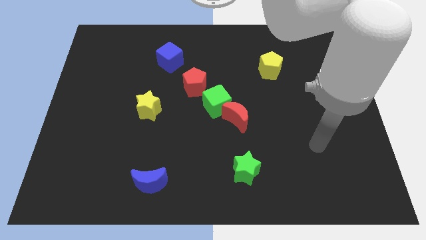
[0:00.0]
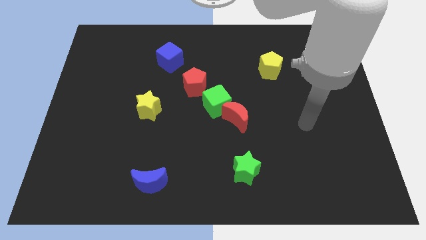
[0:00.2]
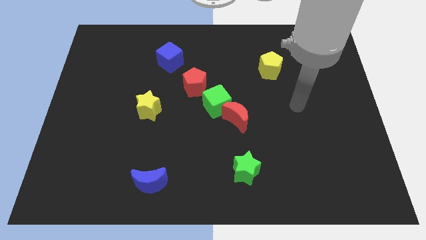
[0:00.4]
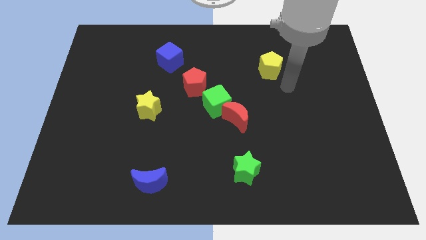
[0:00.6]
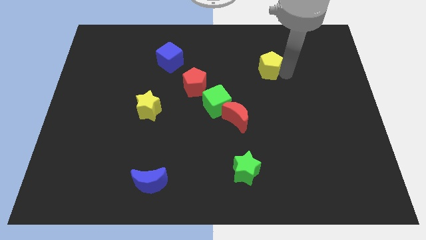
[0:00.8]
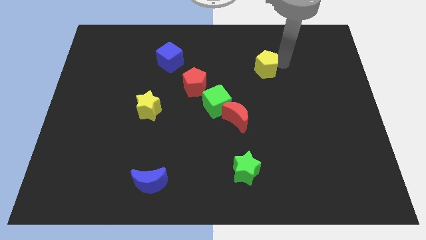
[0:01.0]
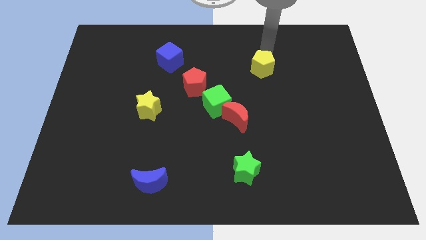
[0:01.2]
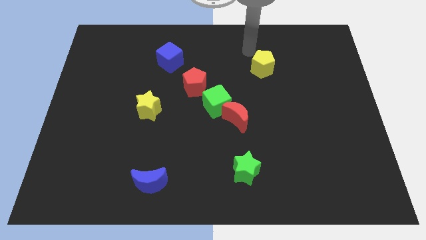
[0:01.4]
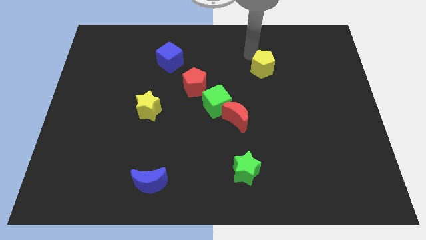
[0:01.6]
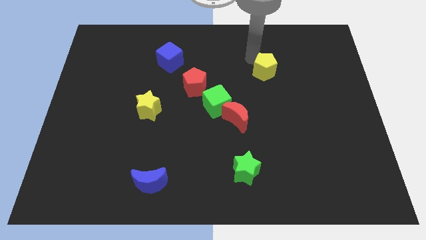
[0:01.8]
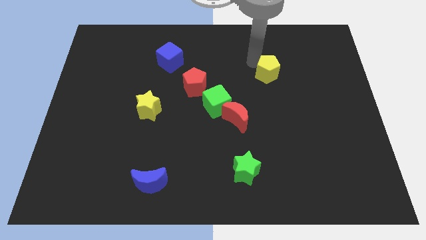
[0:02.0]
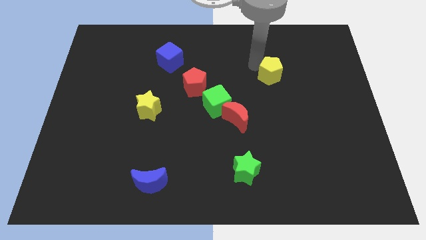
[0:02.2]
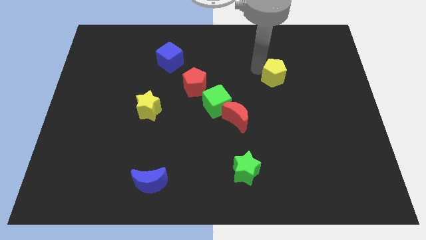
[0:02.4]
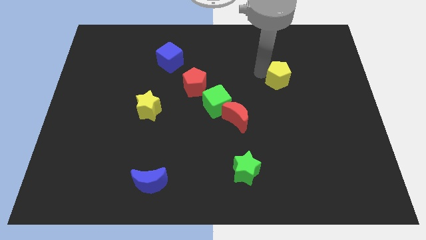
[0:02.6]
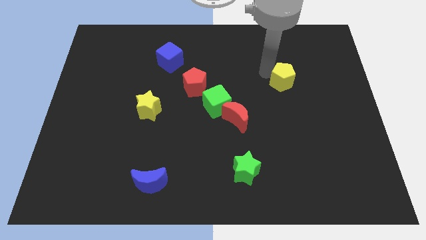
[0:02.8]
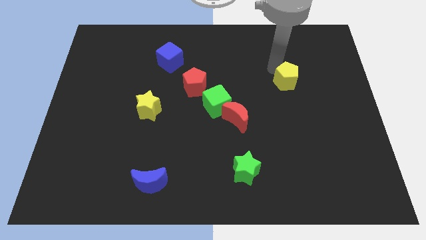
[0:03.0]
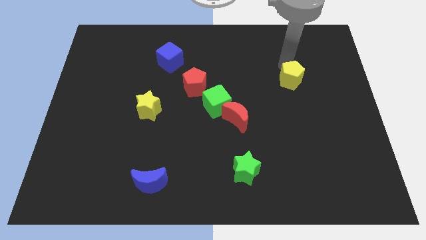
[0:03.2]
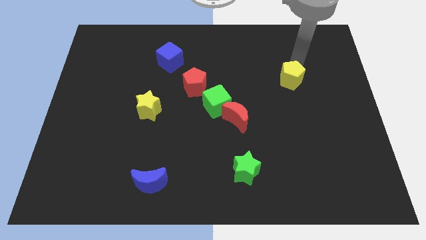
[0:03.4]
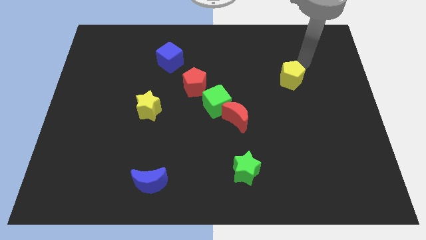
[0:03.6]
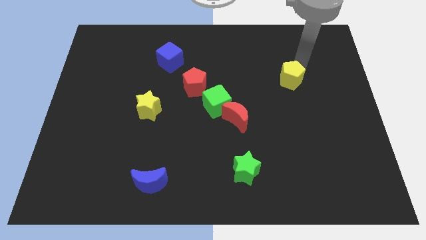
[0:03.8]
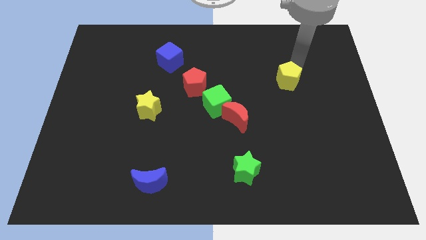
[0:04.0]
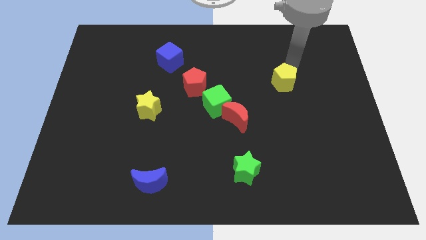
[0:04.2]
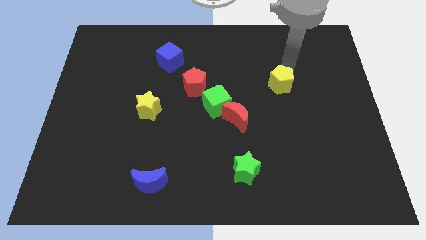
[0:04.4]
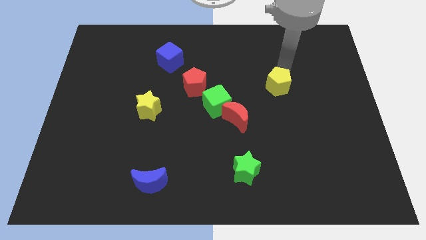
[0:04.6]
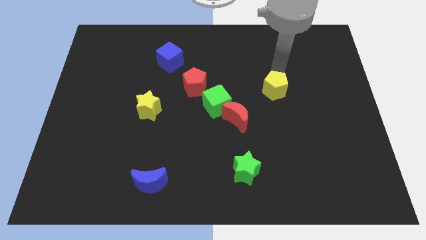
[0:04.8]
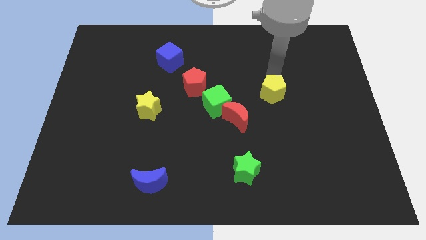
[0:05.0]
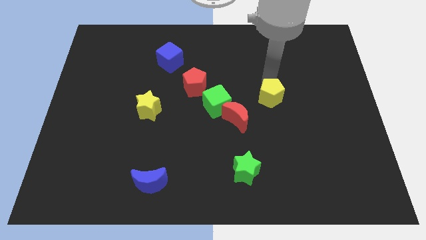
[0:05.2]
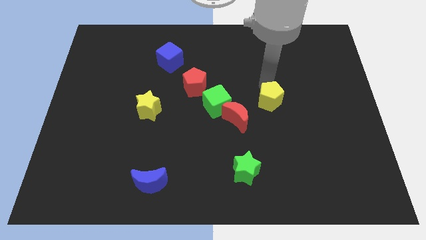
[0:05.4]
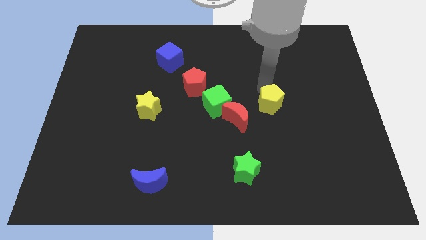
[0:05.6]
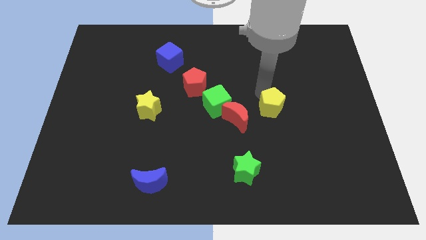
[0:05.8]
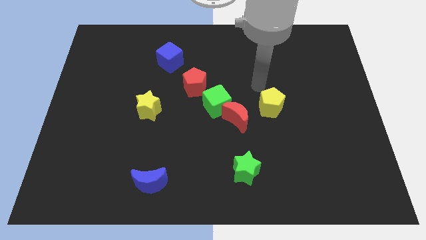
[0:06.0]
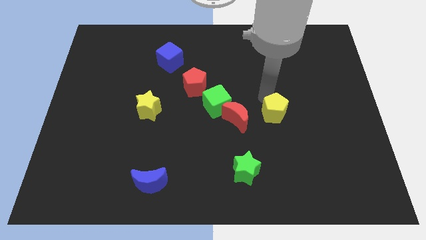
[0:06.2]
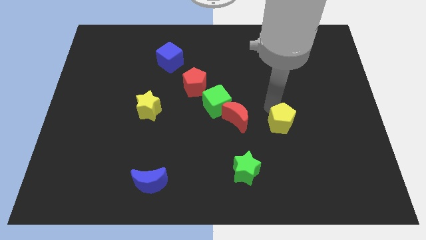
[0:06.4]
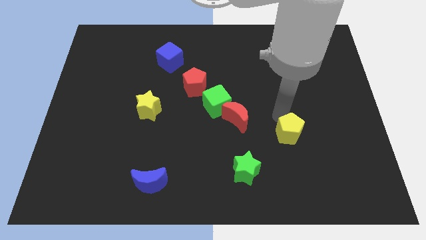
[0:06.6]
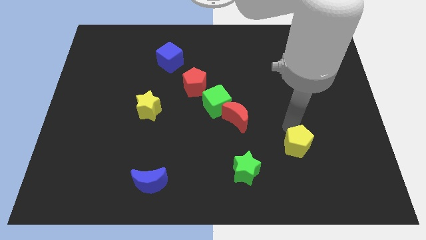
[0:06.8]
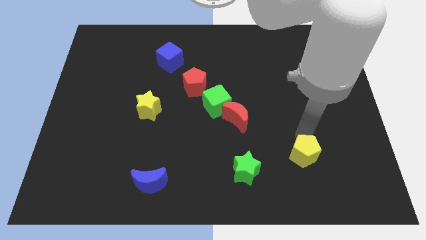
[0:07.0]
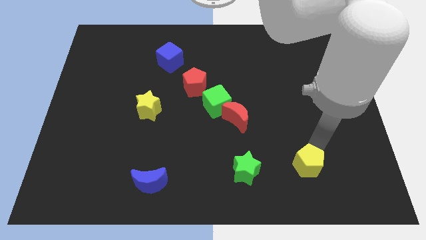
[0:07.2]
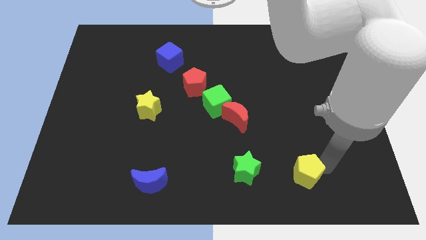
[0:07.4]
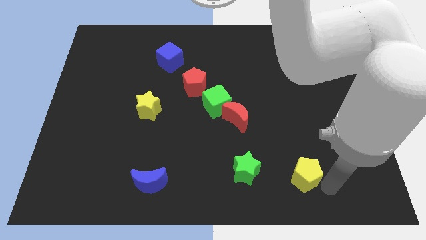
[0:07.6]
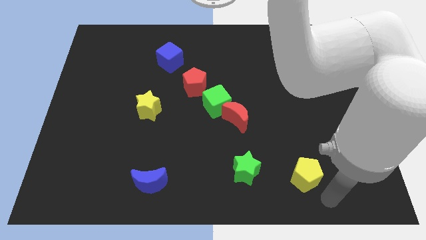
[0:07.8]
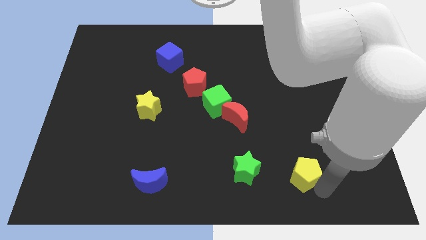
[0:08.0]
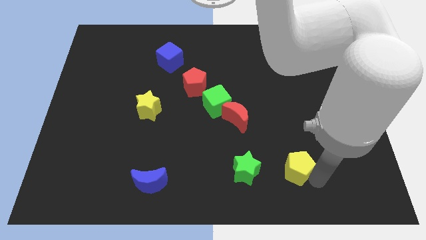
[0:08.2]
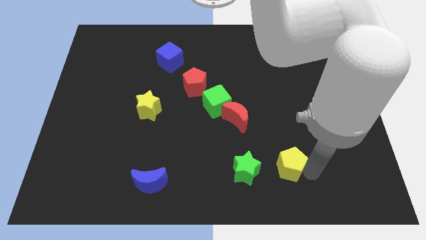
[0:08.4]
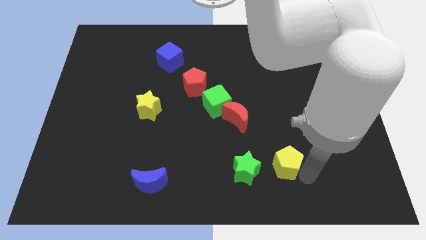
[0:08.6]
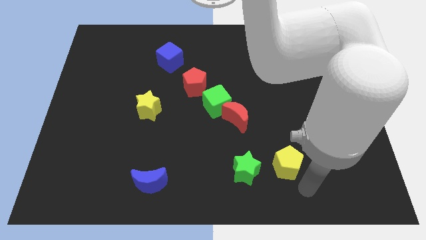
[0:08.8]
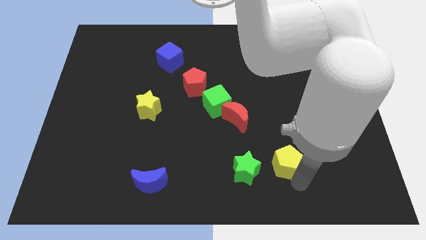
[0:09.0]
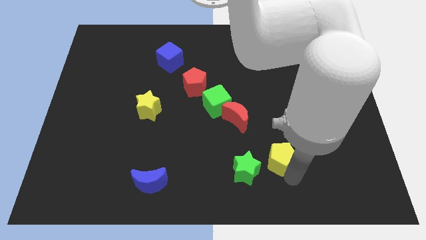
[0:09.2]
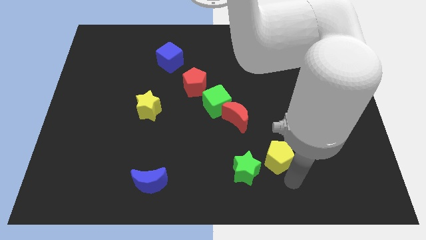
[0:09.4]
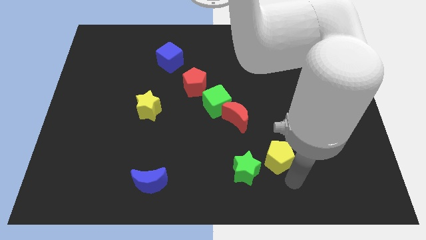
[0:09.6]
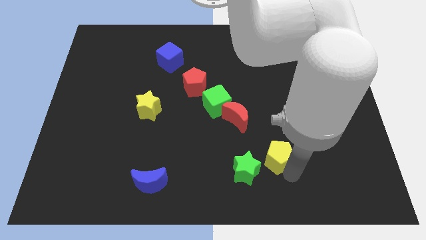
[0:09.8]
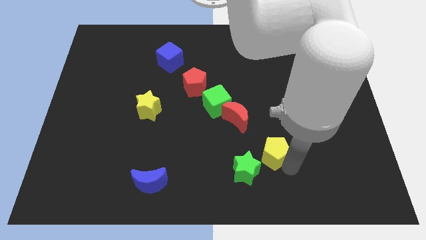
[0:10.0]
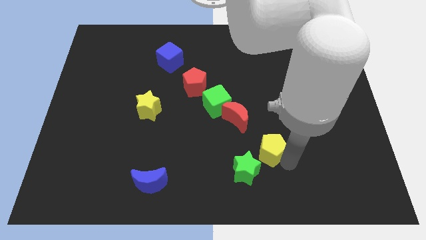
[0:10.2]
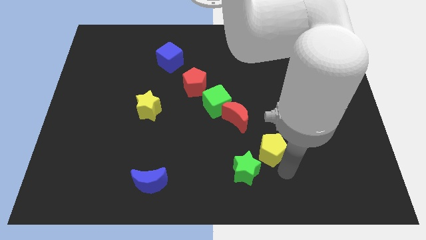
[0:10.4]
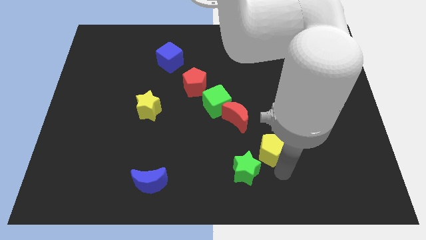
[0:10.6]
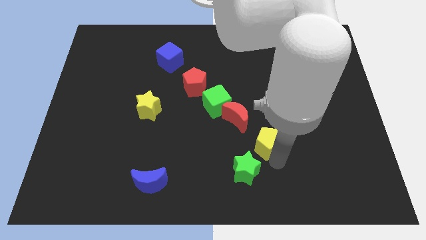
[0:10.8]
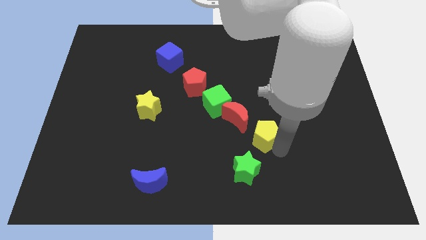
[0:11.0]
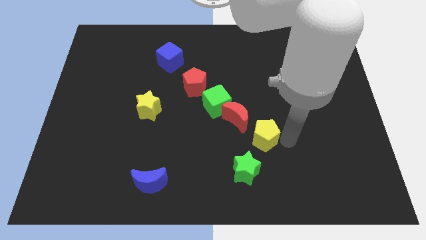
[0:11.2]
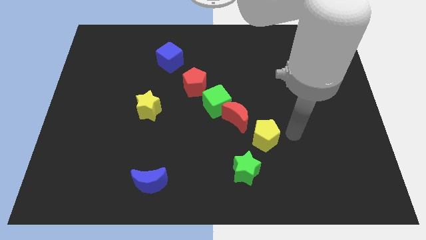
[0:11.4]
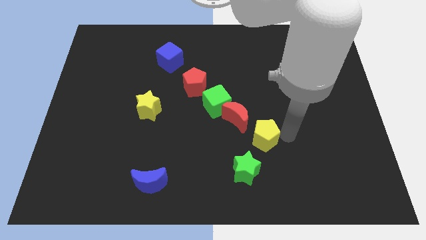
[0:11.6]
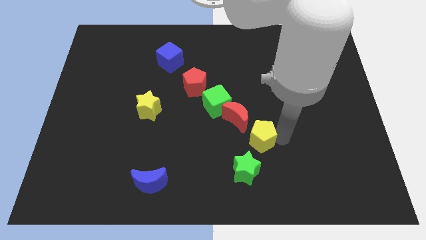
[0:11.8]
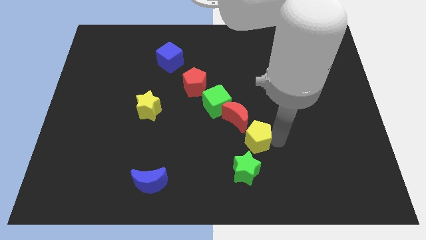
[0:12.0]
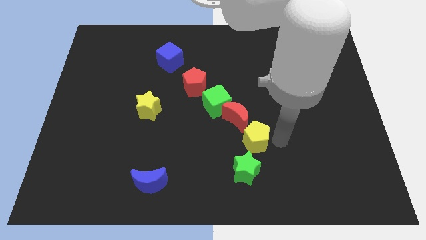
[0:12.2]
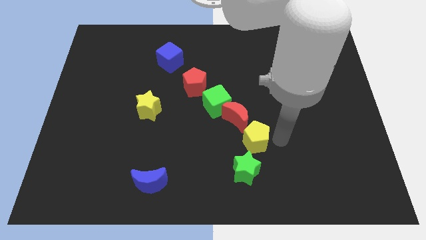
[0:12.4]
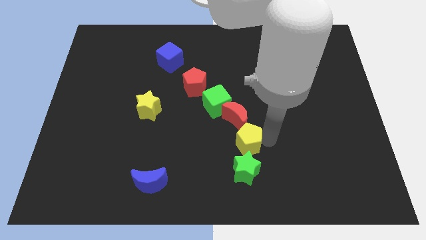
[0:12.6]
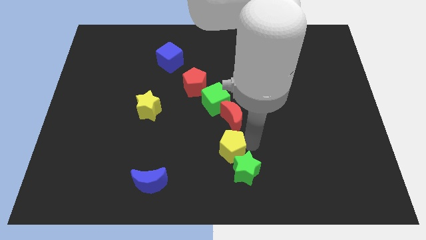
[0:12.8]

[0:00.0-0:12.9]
slide the yellow pentagon downwards and to the left diagonally

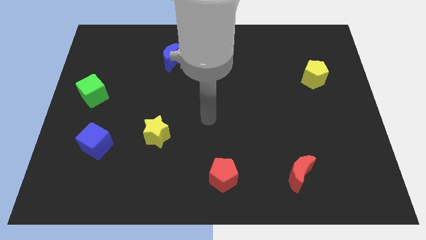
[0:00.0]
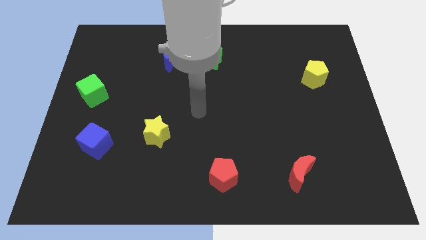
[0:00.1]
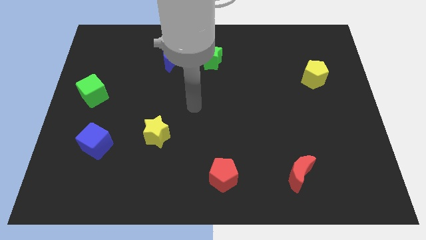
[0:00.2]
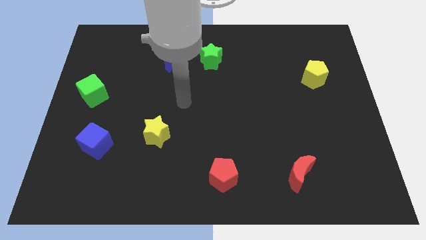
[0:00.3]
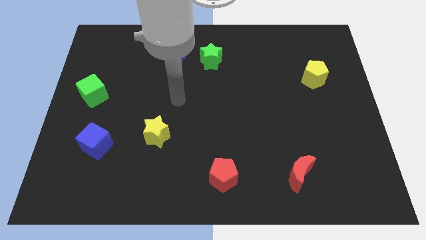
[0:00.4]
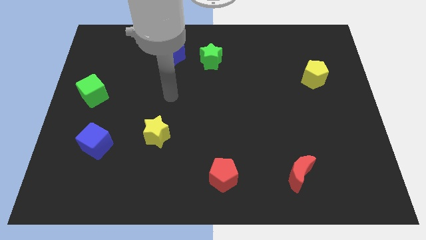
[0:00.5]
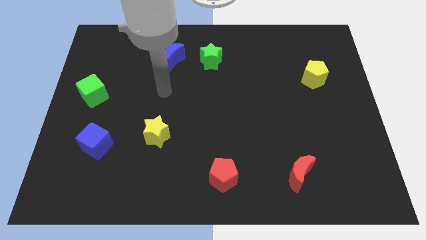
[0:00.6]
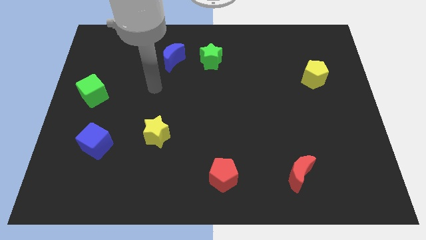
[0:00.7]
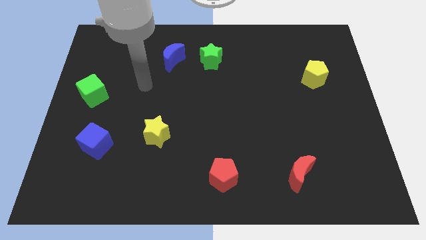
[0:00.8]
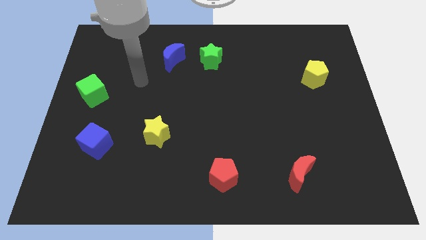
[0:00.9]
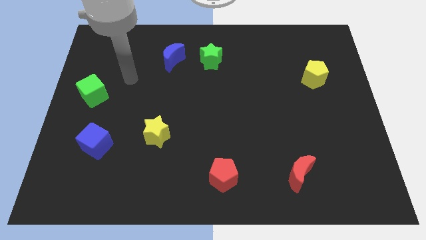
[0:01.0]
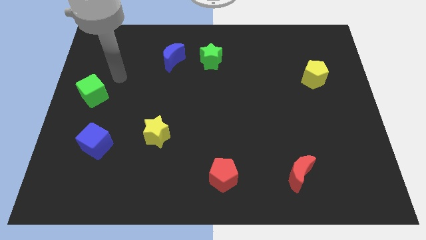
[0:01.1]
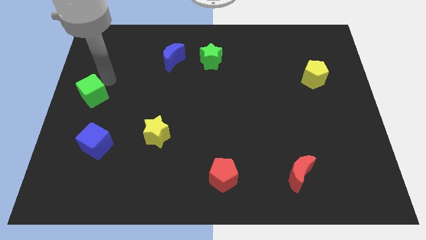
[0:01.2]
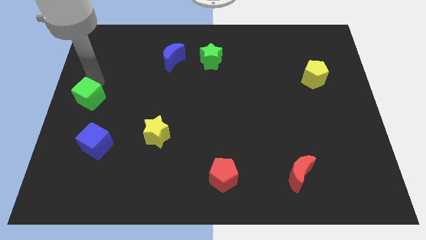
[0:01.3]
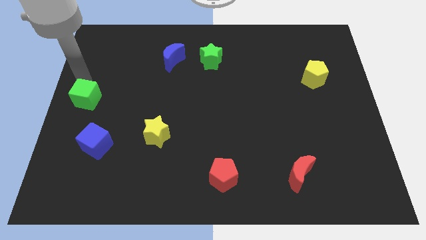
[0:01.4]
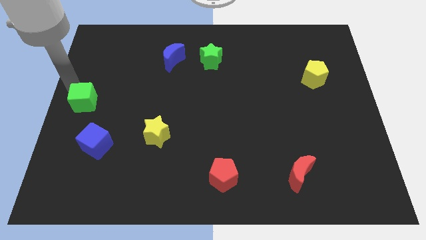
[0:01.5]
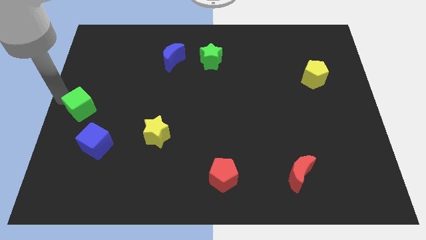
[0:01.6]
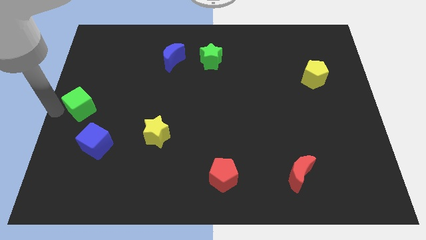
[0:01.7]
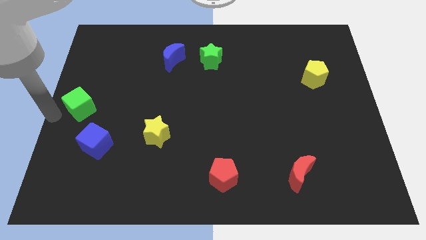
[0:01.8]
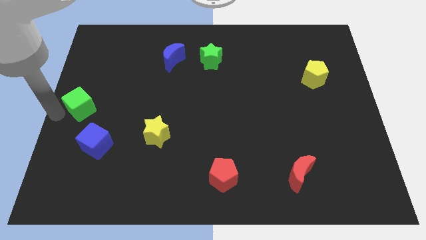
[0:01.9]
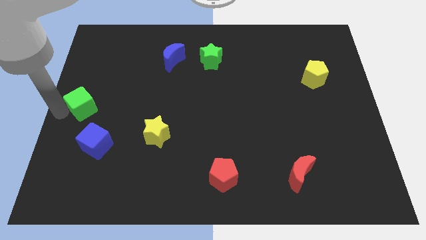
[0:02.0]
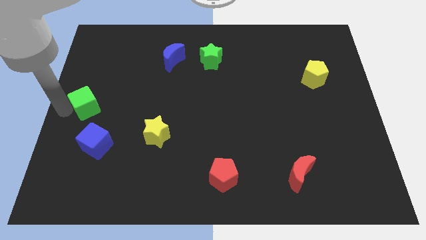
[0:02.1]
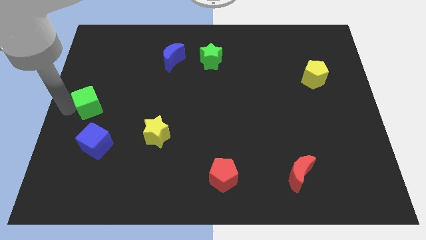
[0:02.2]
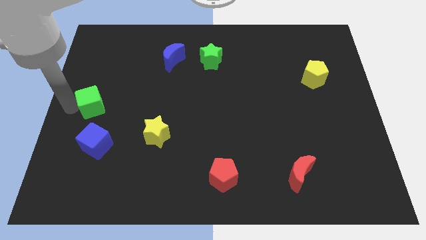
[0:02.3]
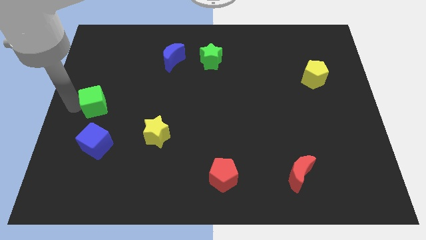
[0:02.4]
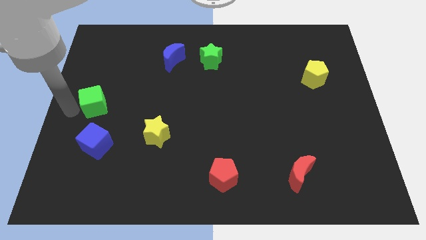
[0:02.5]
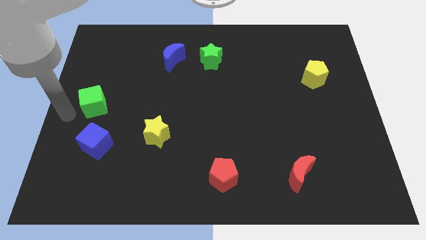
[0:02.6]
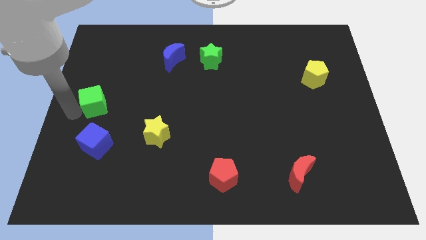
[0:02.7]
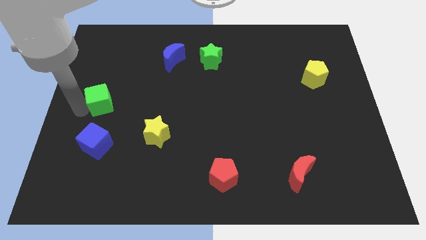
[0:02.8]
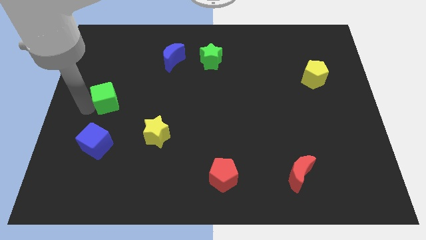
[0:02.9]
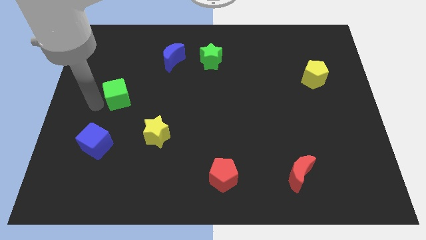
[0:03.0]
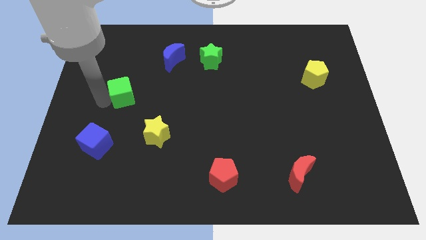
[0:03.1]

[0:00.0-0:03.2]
move the green cube slightly right
